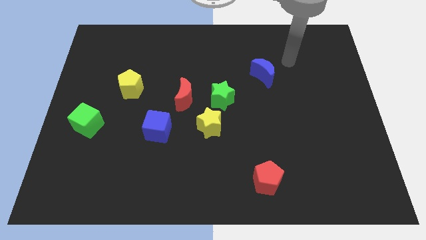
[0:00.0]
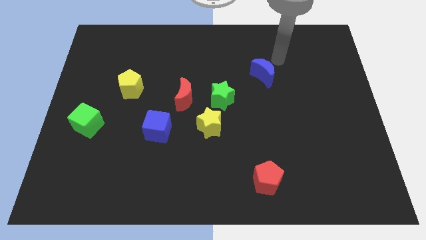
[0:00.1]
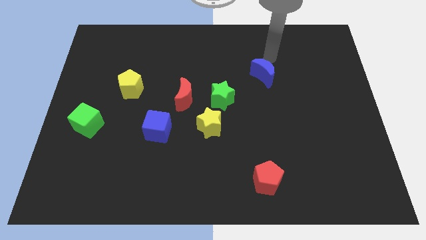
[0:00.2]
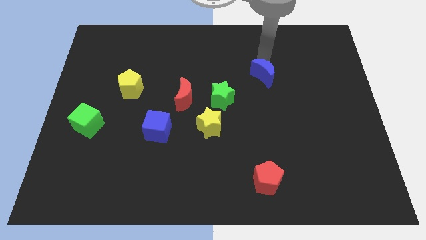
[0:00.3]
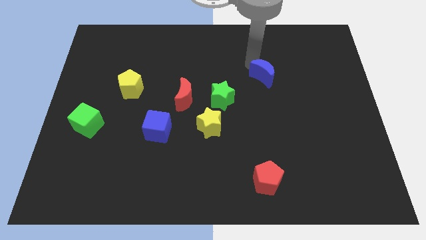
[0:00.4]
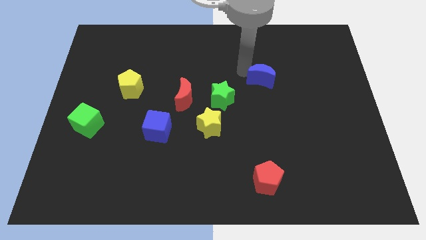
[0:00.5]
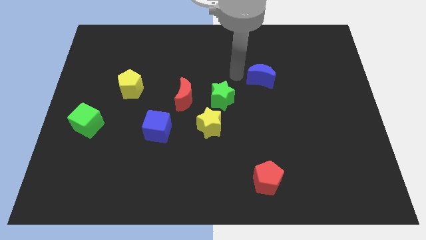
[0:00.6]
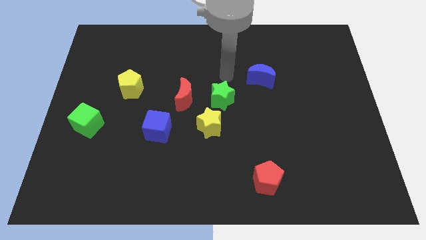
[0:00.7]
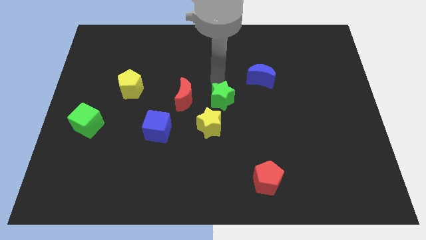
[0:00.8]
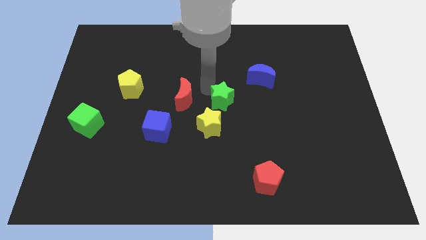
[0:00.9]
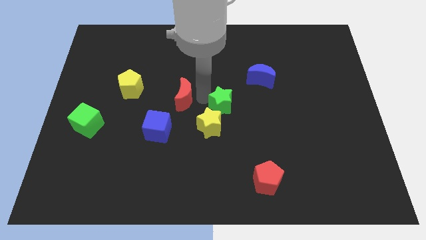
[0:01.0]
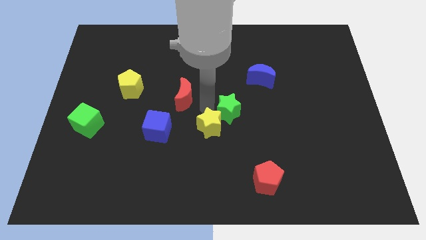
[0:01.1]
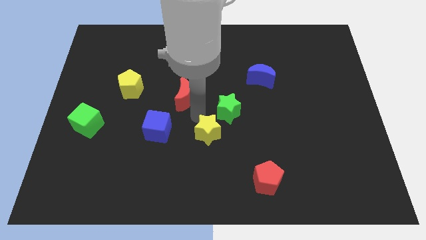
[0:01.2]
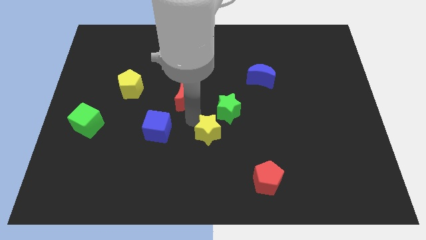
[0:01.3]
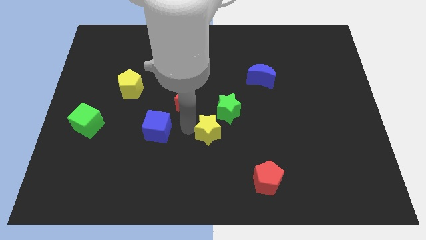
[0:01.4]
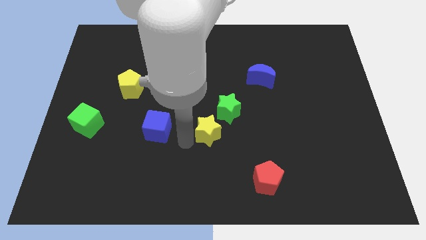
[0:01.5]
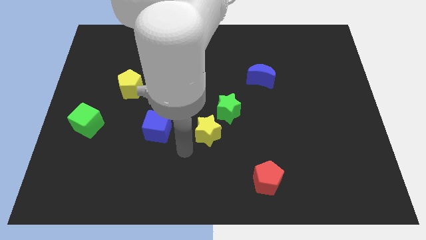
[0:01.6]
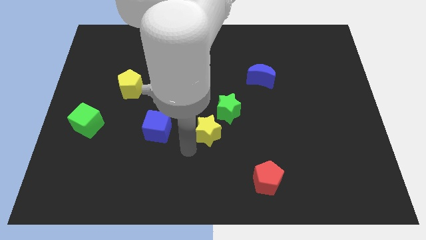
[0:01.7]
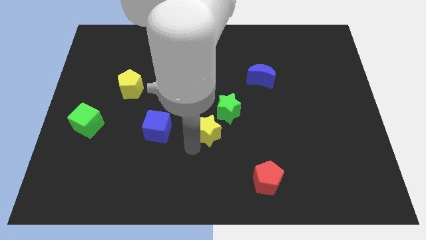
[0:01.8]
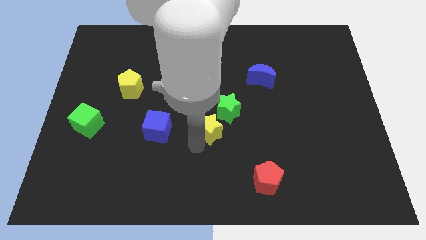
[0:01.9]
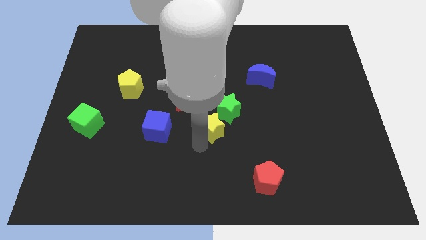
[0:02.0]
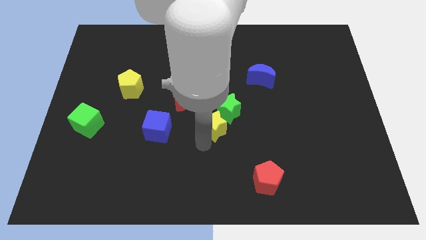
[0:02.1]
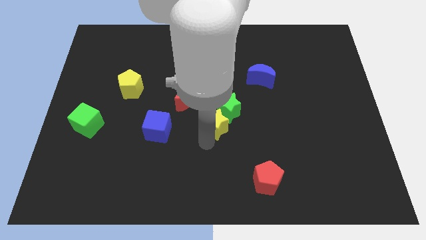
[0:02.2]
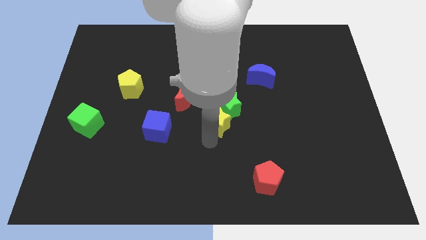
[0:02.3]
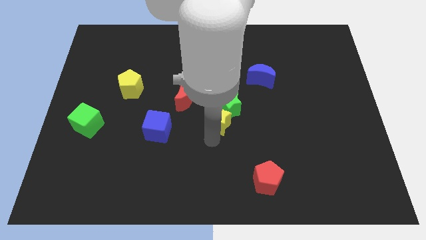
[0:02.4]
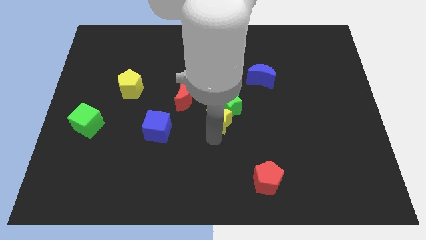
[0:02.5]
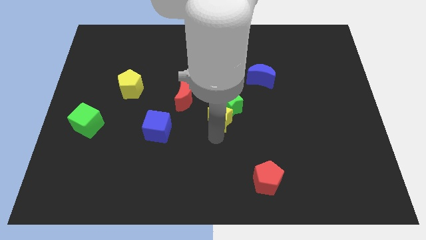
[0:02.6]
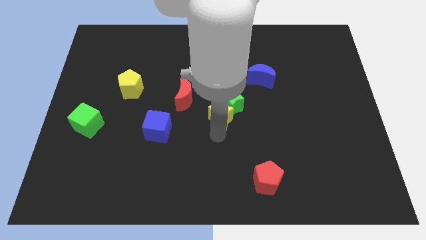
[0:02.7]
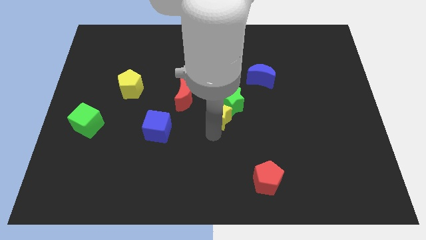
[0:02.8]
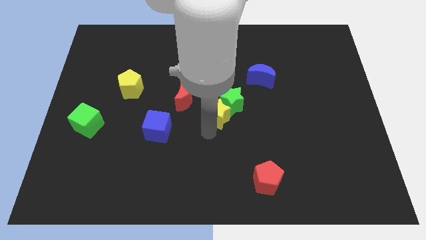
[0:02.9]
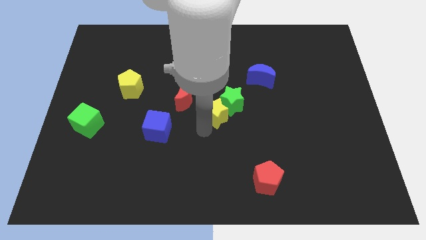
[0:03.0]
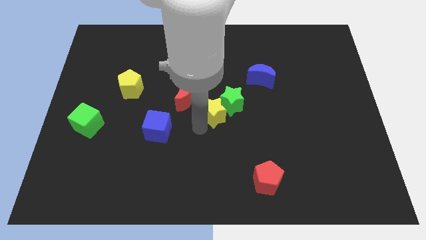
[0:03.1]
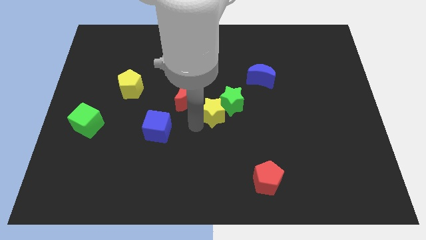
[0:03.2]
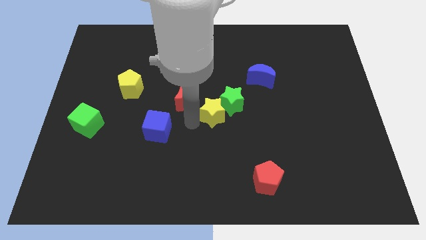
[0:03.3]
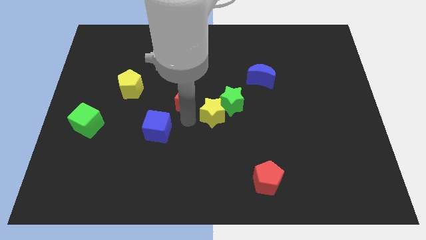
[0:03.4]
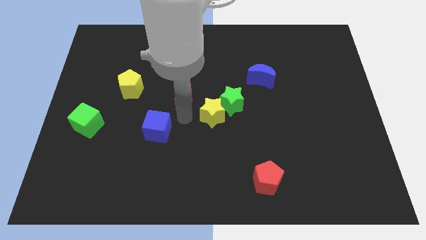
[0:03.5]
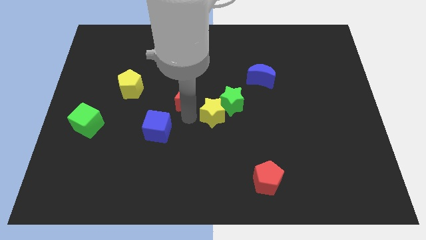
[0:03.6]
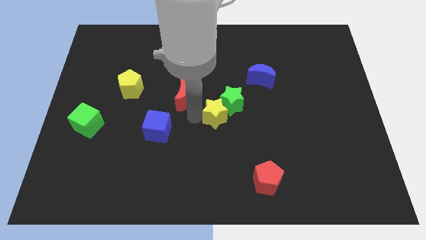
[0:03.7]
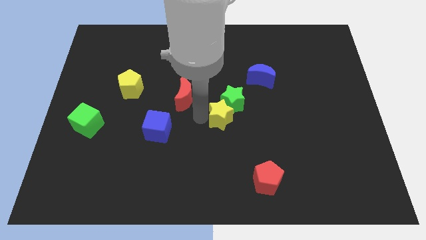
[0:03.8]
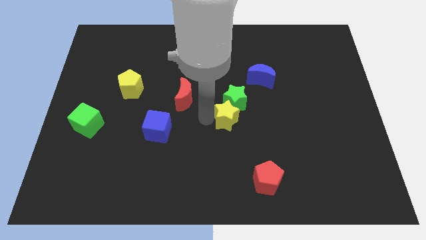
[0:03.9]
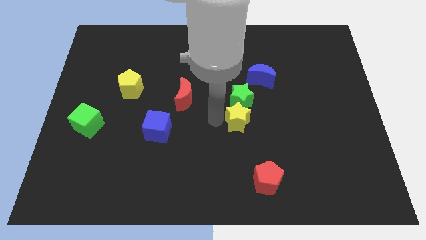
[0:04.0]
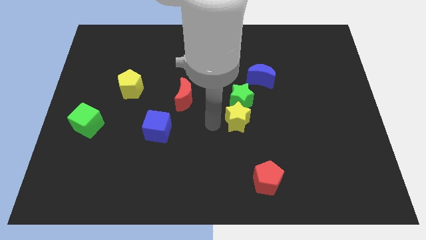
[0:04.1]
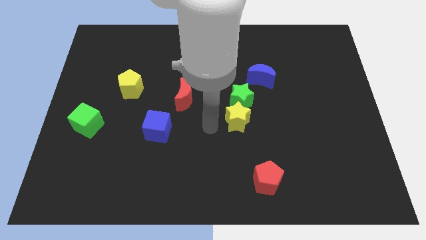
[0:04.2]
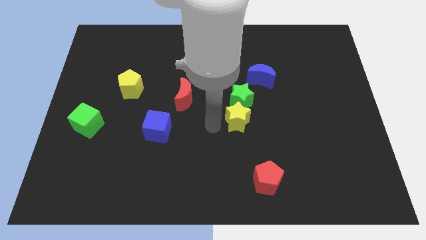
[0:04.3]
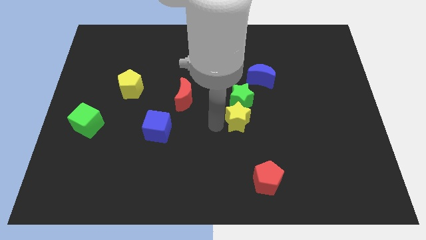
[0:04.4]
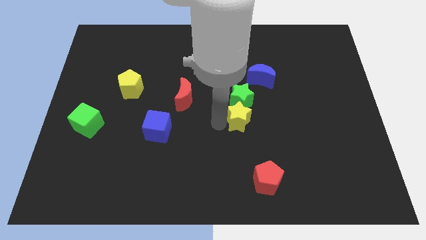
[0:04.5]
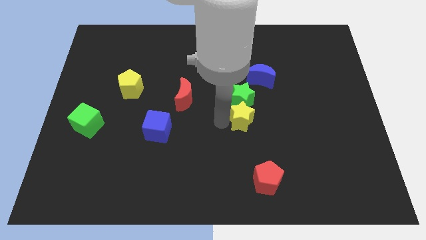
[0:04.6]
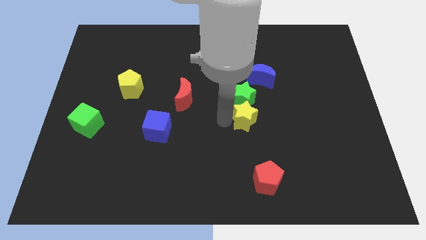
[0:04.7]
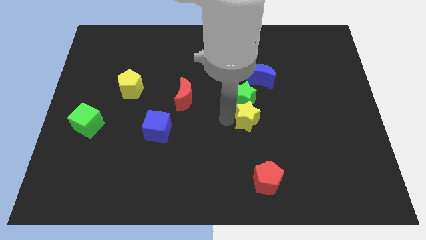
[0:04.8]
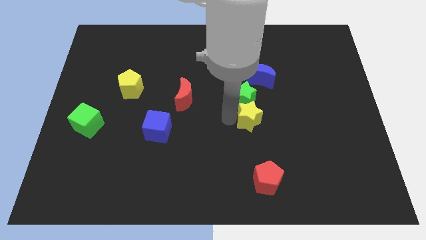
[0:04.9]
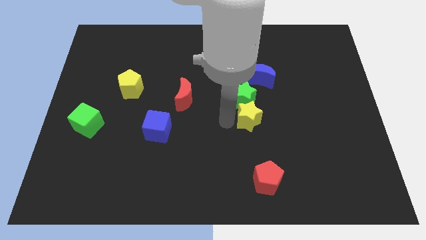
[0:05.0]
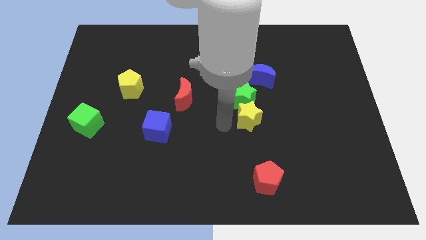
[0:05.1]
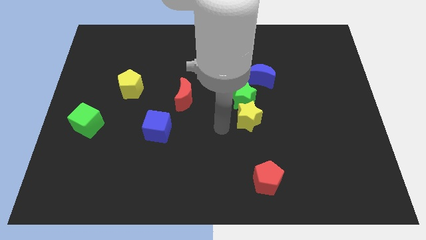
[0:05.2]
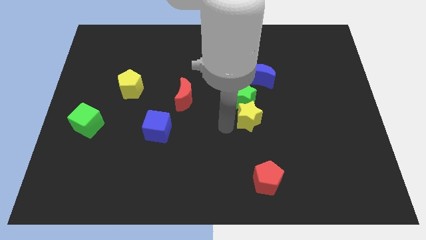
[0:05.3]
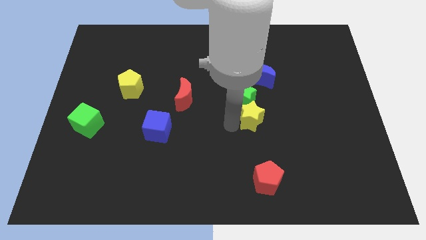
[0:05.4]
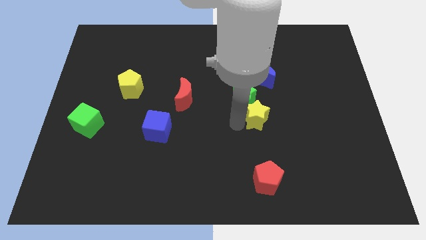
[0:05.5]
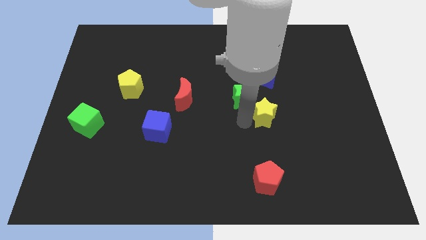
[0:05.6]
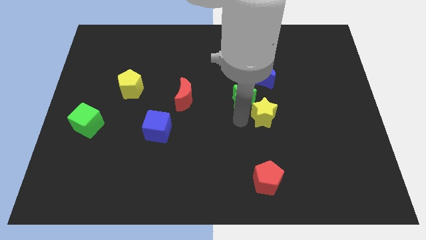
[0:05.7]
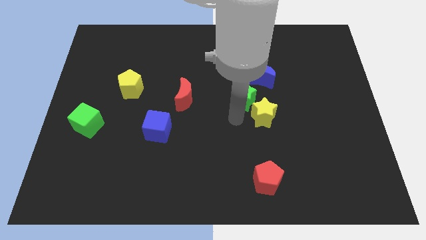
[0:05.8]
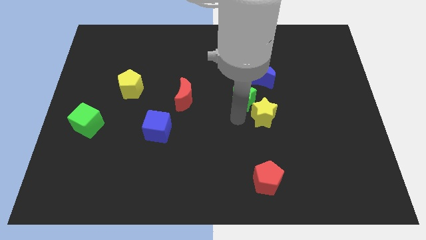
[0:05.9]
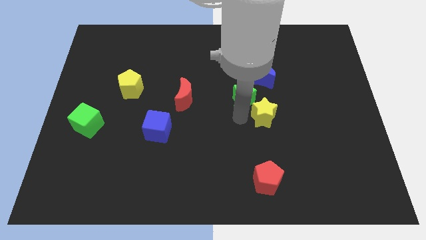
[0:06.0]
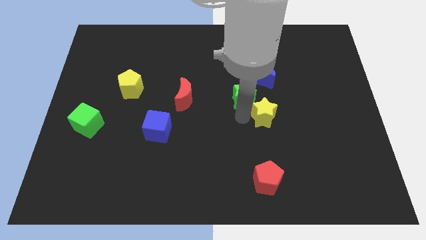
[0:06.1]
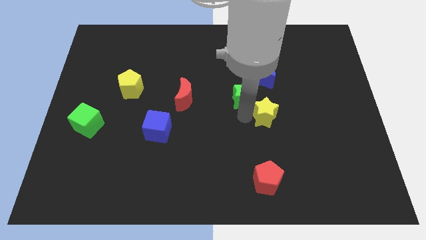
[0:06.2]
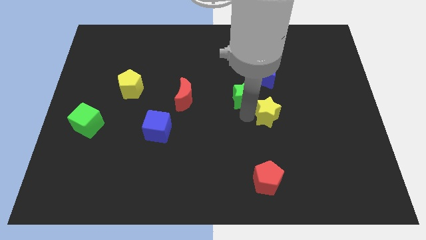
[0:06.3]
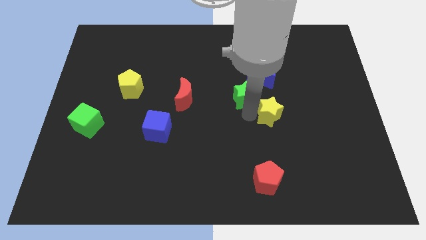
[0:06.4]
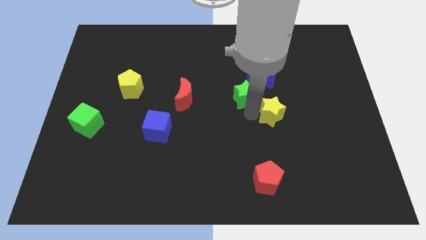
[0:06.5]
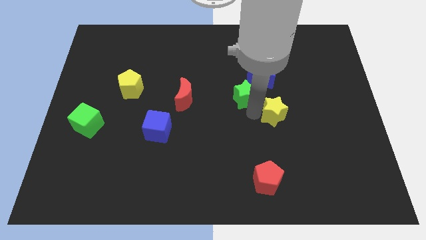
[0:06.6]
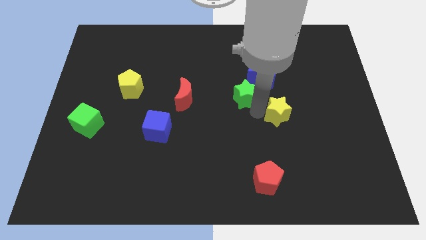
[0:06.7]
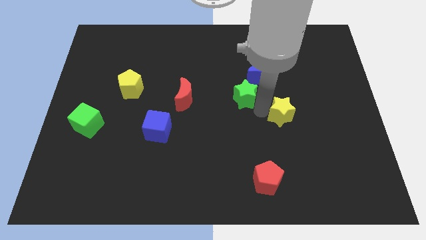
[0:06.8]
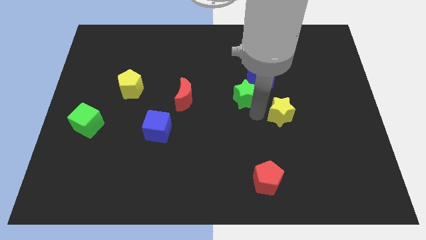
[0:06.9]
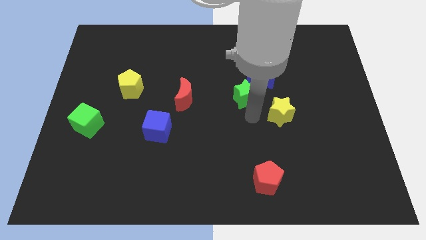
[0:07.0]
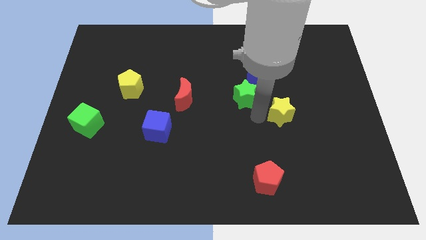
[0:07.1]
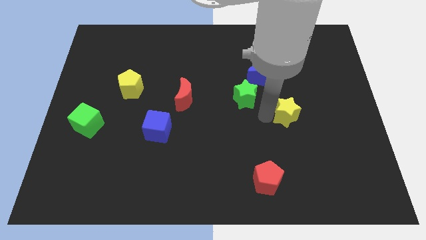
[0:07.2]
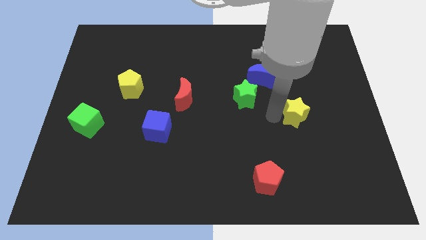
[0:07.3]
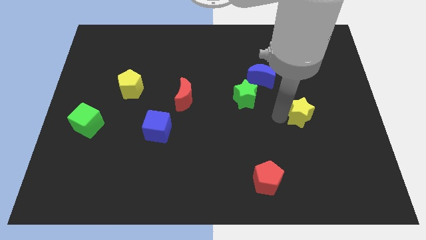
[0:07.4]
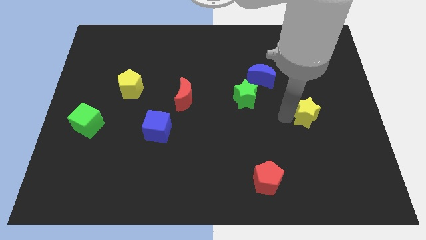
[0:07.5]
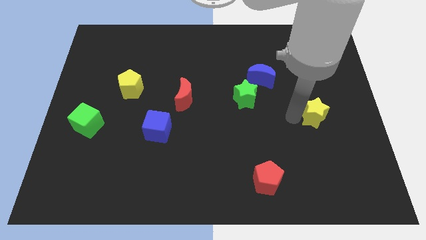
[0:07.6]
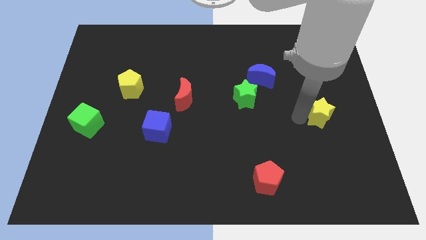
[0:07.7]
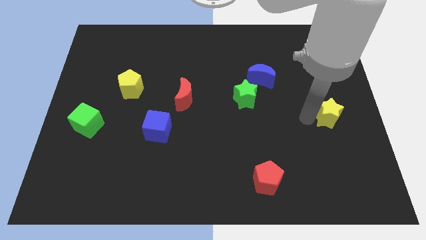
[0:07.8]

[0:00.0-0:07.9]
put the yellow star to the center right
